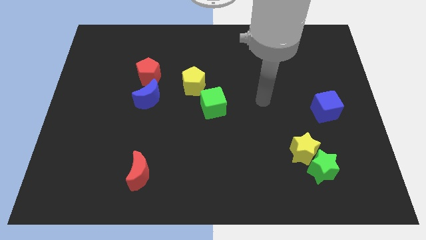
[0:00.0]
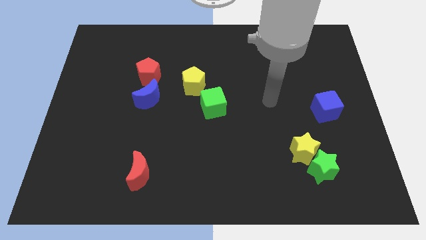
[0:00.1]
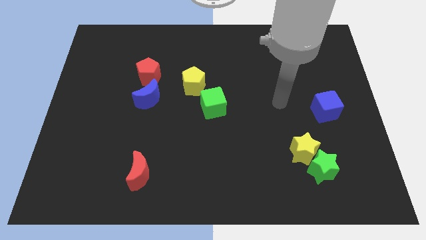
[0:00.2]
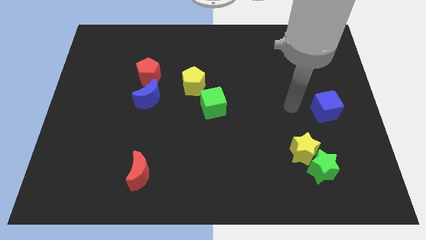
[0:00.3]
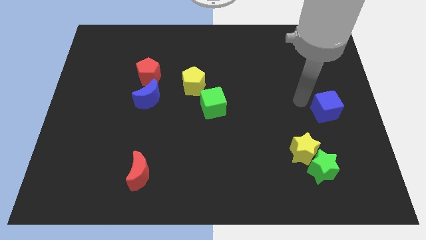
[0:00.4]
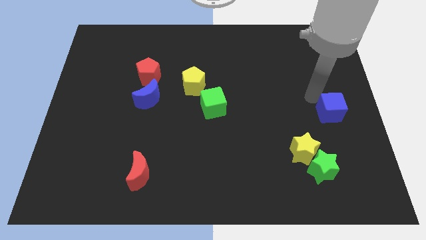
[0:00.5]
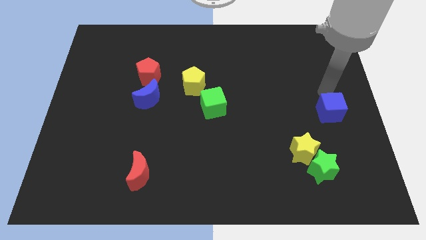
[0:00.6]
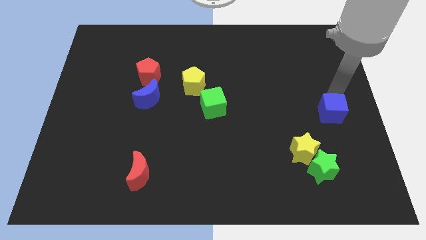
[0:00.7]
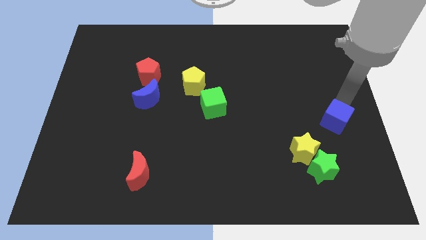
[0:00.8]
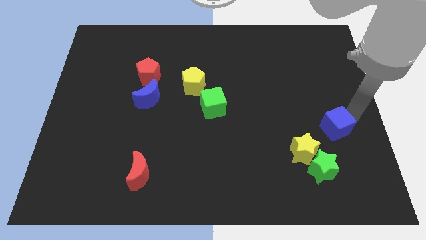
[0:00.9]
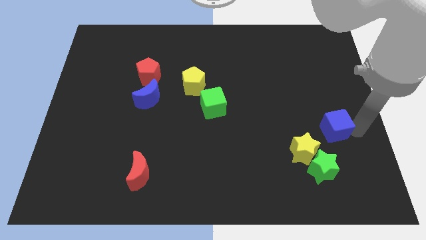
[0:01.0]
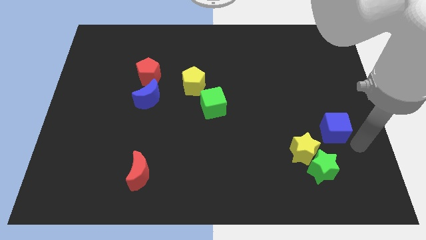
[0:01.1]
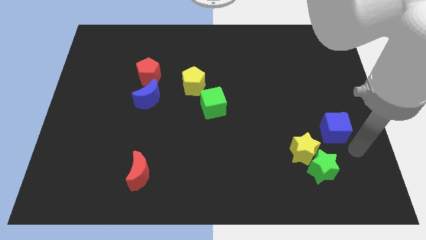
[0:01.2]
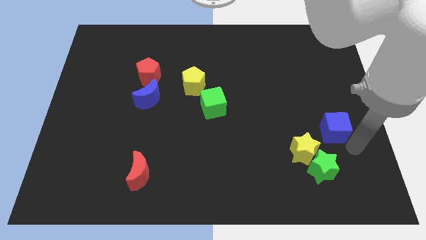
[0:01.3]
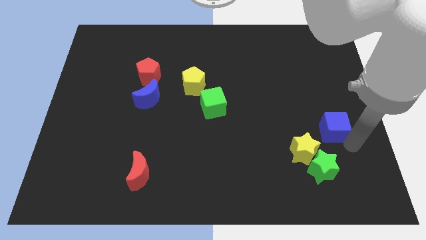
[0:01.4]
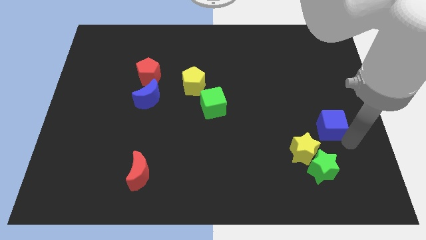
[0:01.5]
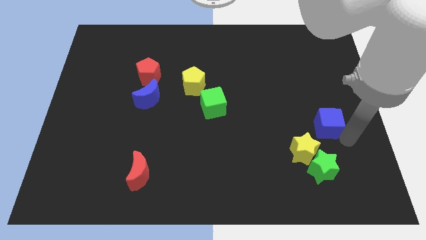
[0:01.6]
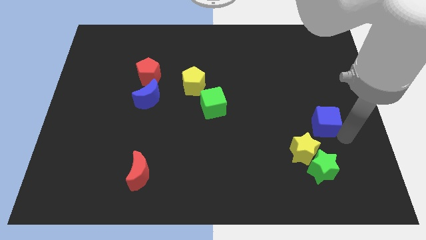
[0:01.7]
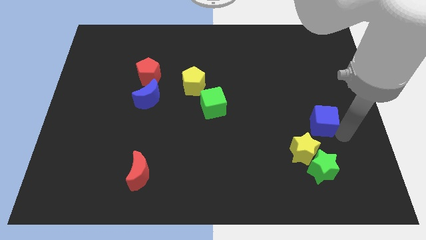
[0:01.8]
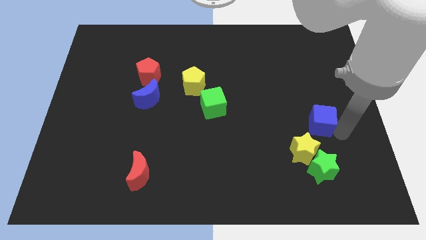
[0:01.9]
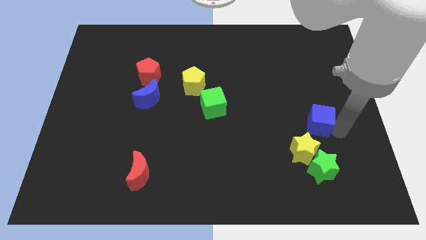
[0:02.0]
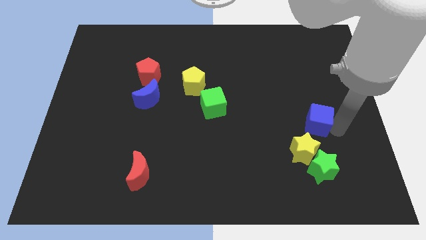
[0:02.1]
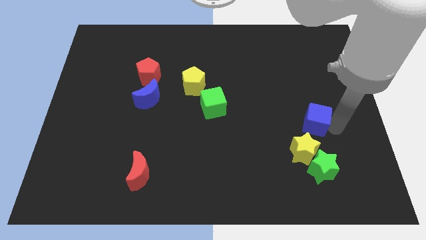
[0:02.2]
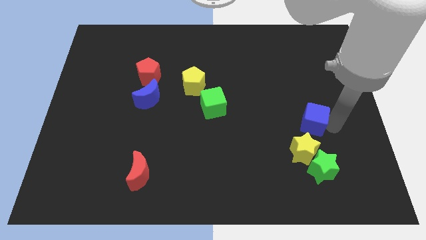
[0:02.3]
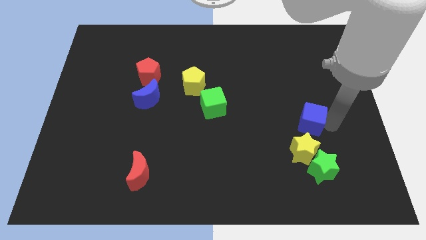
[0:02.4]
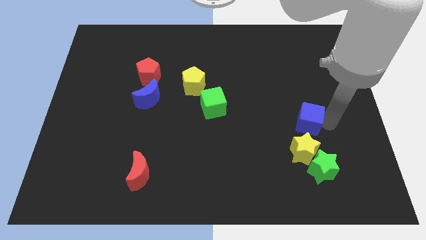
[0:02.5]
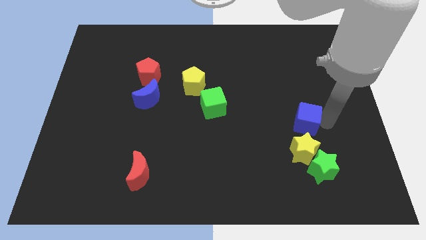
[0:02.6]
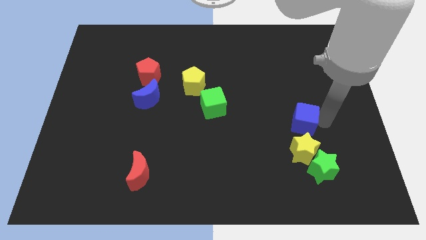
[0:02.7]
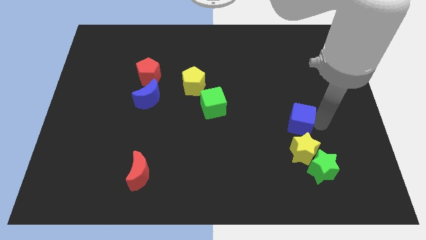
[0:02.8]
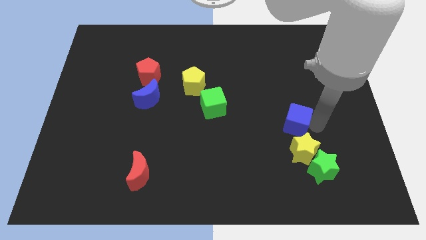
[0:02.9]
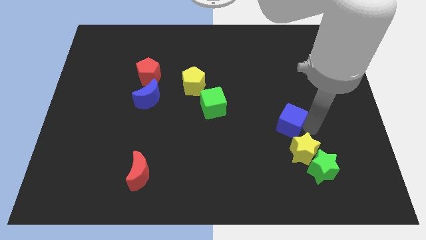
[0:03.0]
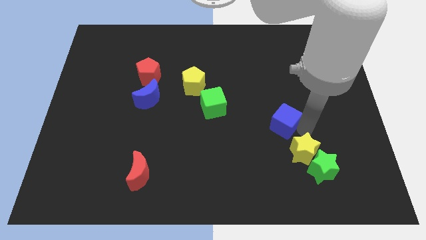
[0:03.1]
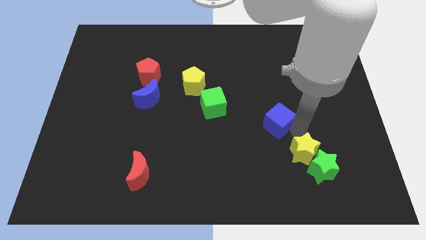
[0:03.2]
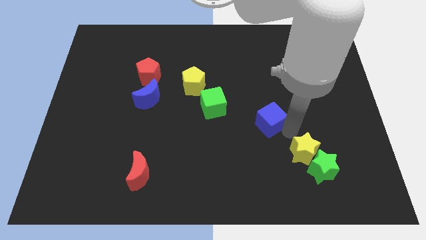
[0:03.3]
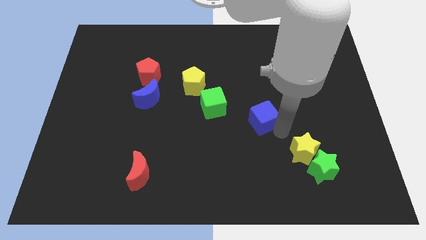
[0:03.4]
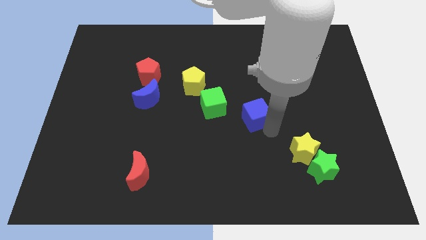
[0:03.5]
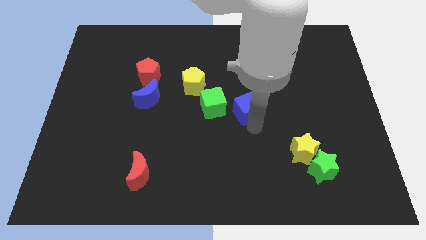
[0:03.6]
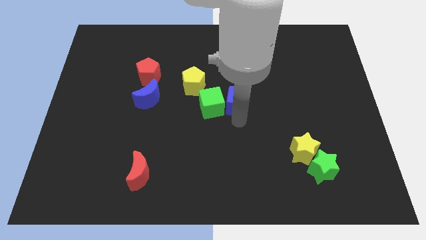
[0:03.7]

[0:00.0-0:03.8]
slide the blue cube left

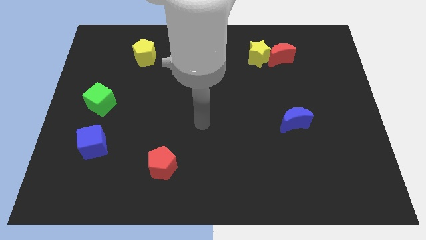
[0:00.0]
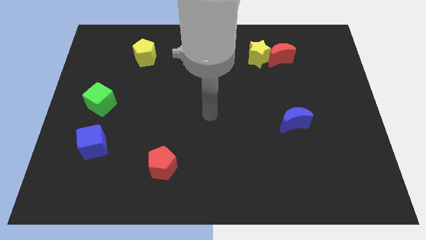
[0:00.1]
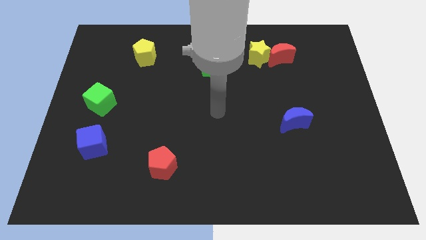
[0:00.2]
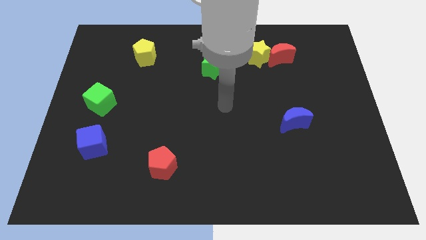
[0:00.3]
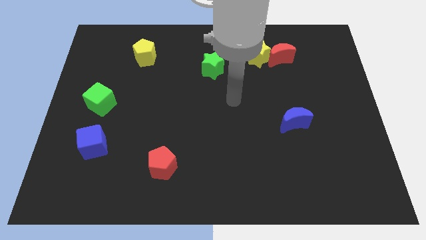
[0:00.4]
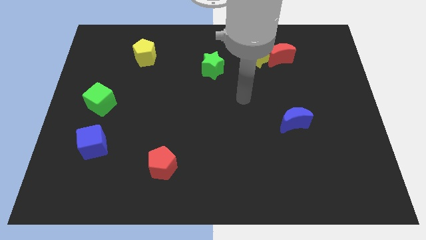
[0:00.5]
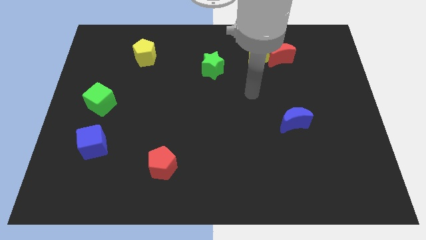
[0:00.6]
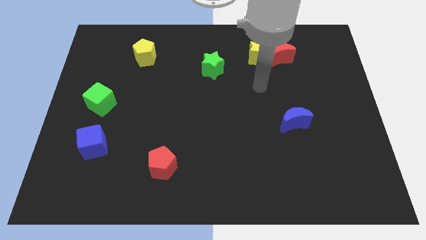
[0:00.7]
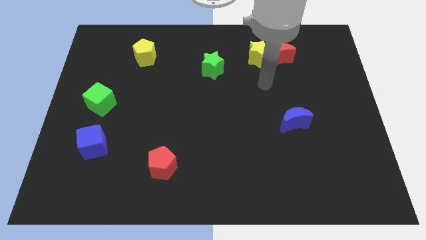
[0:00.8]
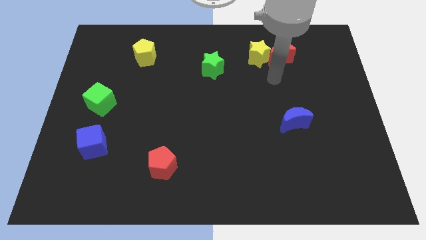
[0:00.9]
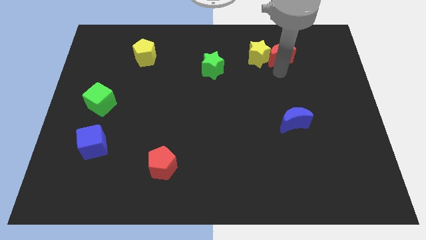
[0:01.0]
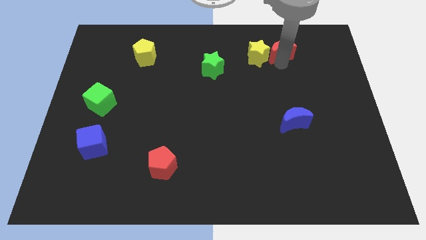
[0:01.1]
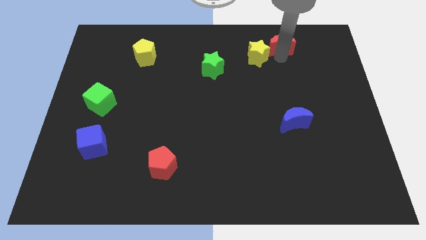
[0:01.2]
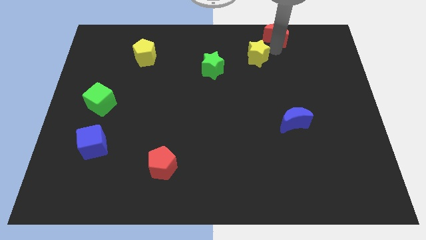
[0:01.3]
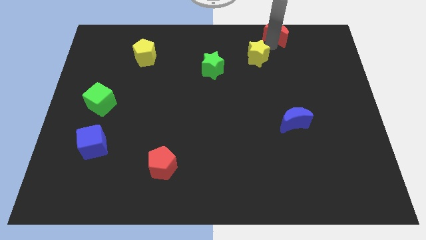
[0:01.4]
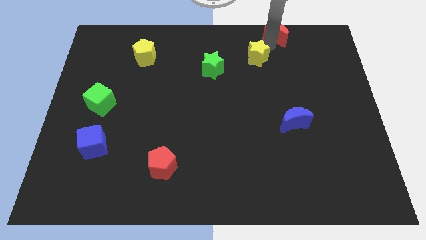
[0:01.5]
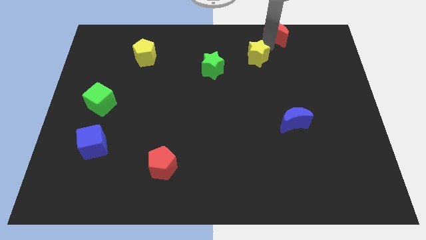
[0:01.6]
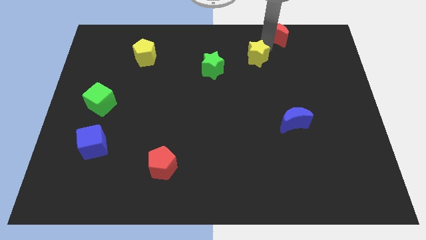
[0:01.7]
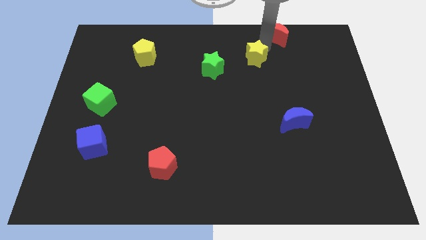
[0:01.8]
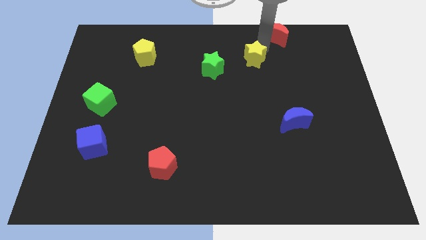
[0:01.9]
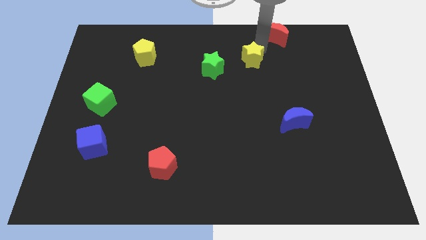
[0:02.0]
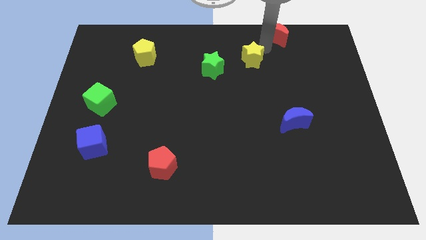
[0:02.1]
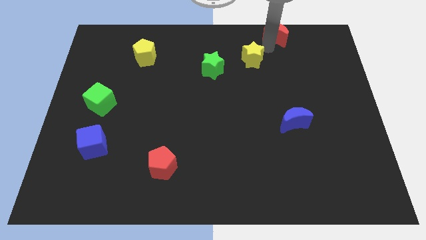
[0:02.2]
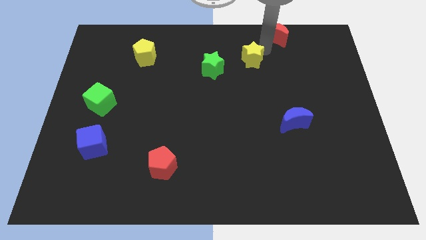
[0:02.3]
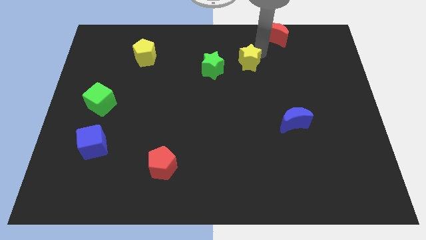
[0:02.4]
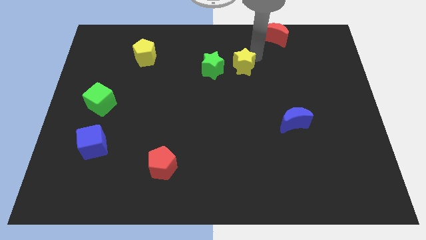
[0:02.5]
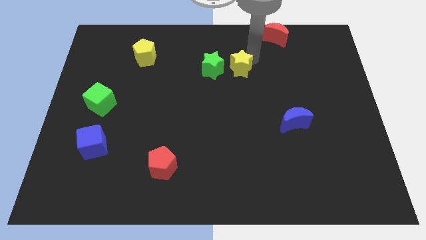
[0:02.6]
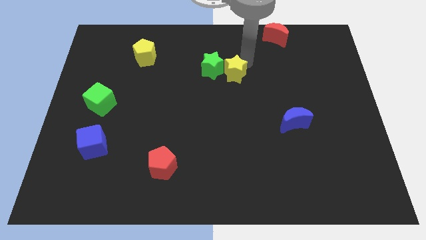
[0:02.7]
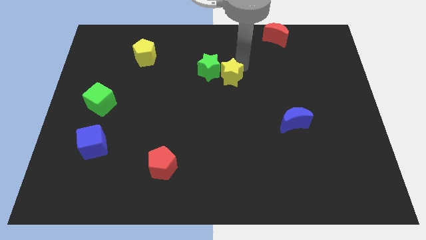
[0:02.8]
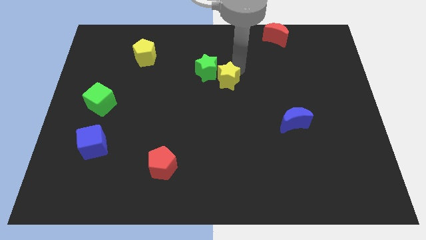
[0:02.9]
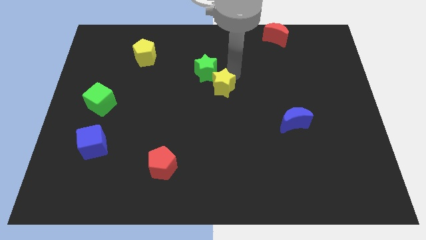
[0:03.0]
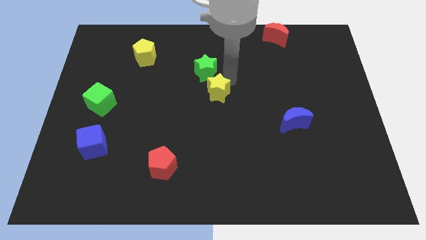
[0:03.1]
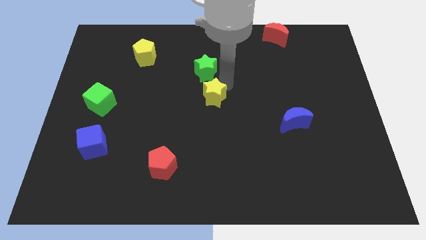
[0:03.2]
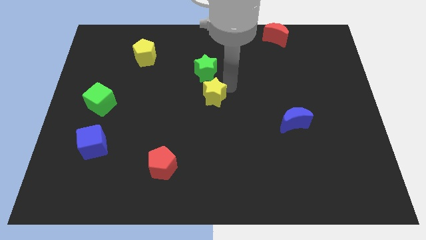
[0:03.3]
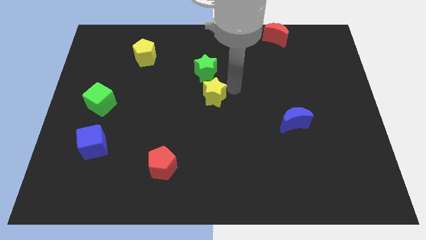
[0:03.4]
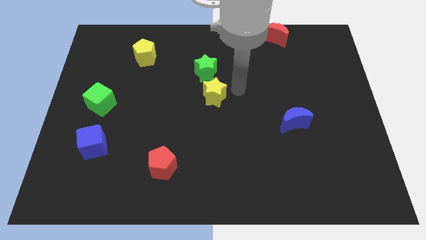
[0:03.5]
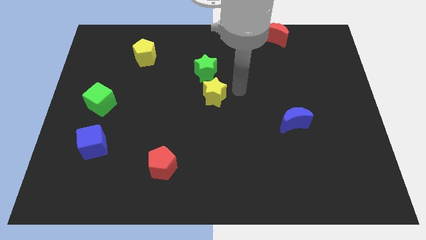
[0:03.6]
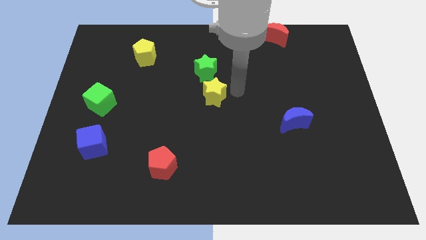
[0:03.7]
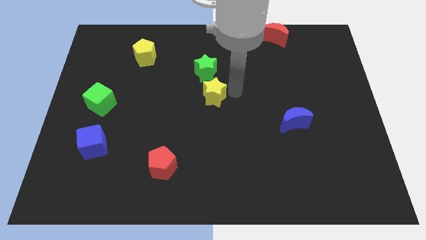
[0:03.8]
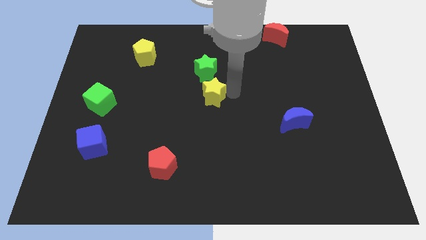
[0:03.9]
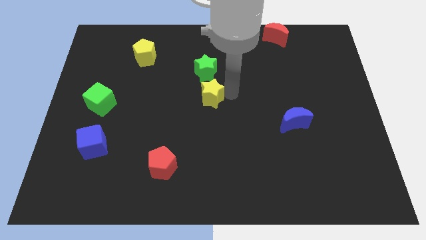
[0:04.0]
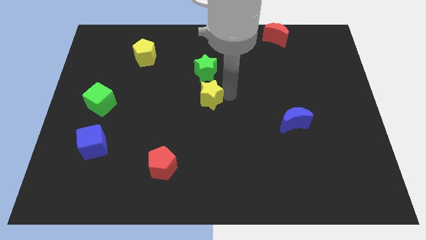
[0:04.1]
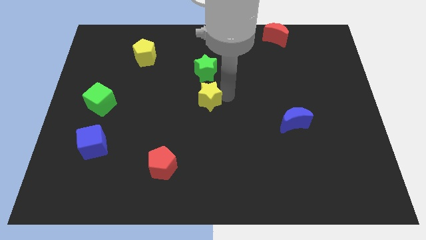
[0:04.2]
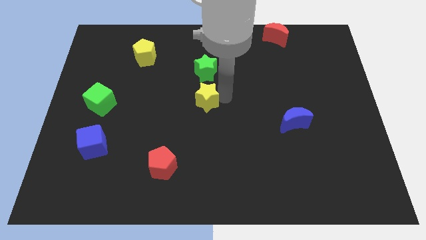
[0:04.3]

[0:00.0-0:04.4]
push the yellow star down and then to the left
